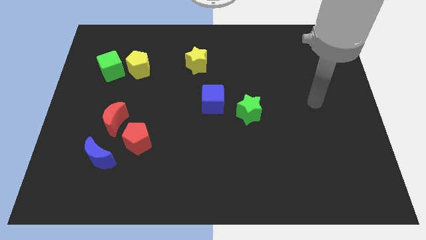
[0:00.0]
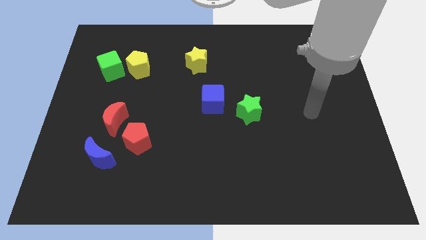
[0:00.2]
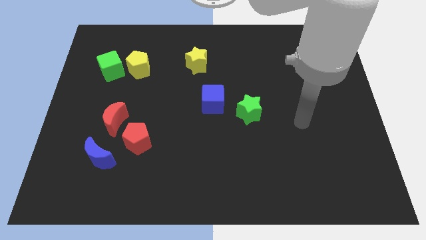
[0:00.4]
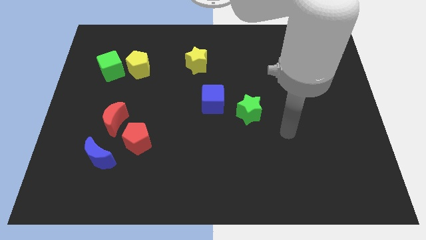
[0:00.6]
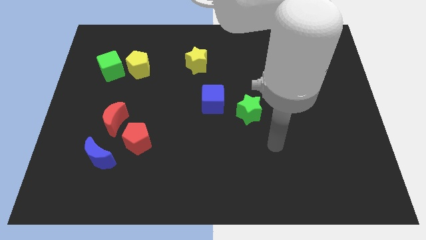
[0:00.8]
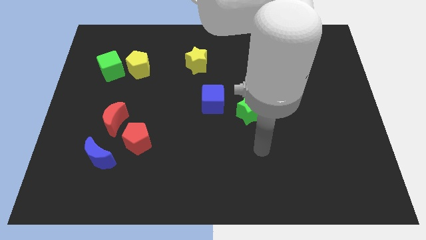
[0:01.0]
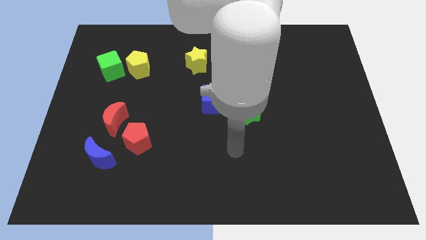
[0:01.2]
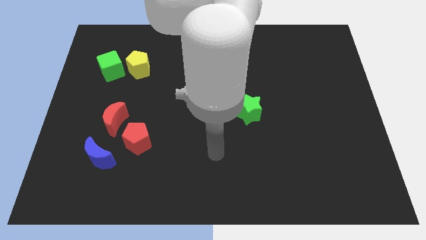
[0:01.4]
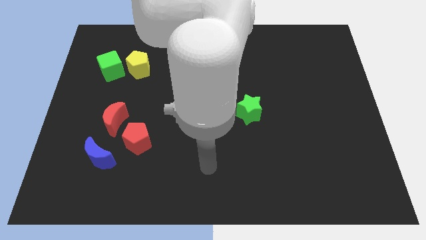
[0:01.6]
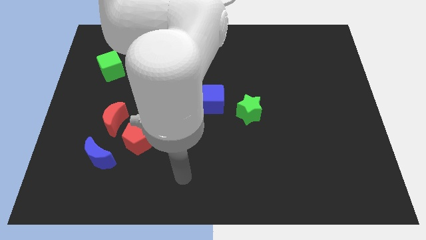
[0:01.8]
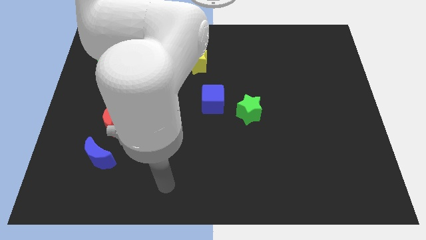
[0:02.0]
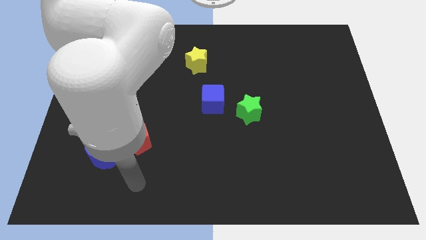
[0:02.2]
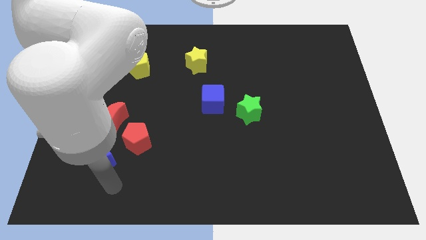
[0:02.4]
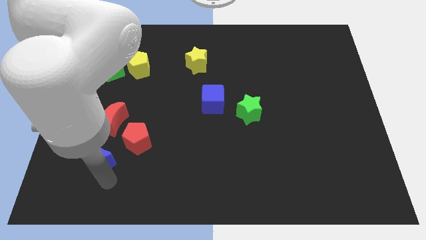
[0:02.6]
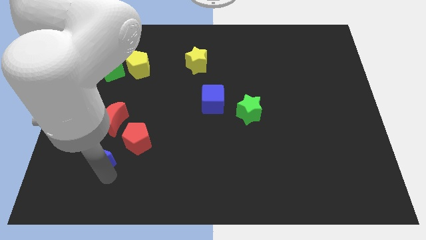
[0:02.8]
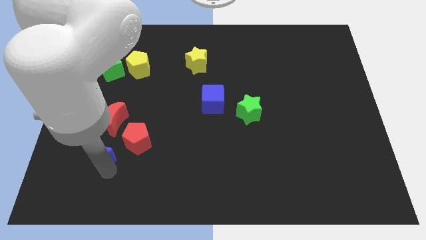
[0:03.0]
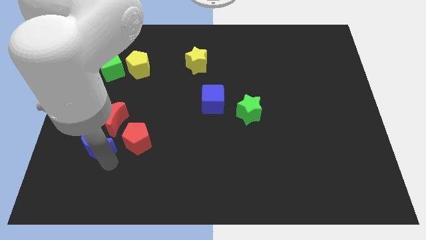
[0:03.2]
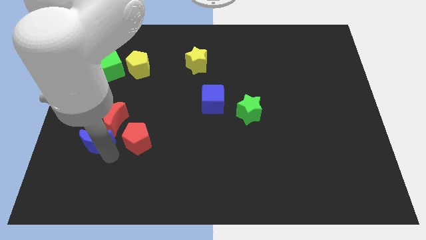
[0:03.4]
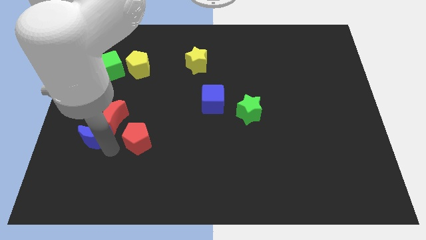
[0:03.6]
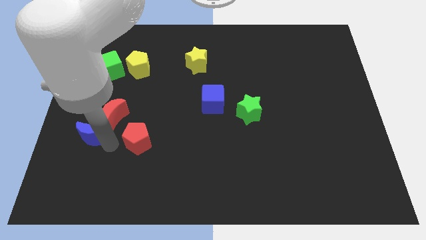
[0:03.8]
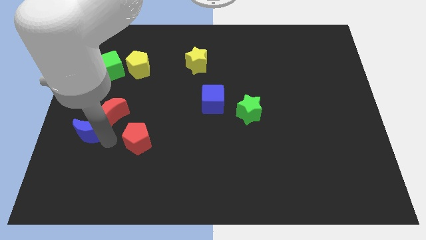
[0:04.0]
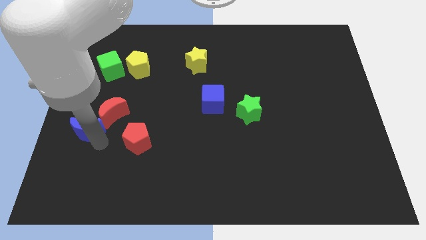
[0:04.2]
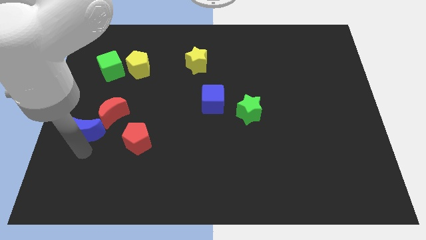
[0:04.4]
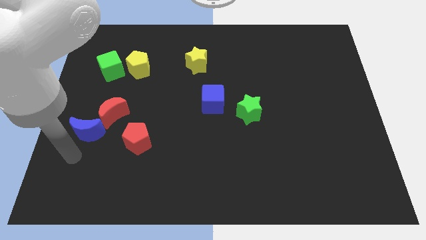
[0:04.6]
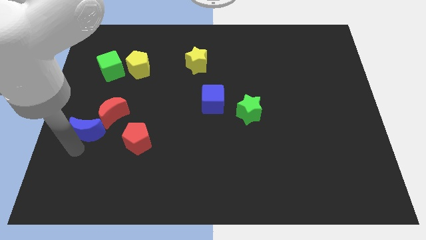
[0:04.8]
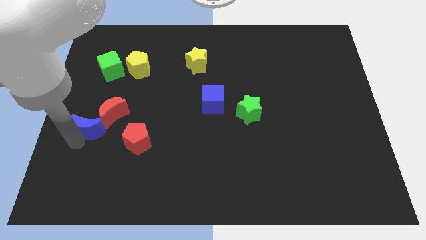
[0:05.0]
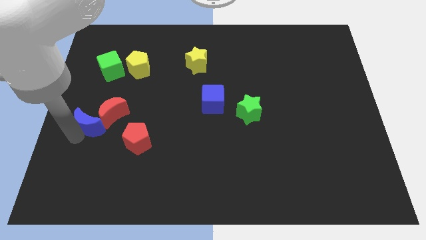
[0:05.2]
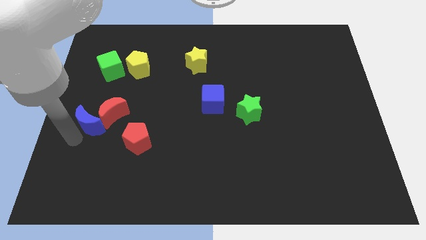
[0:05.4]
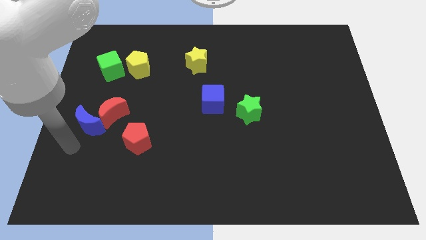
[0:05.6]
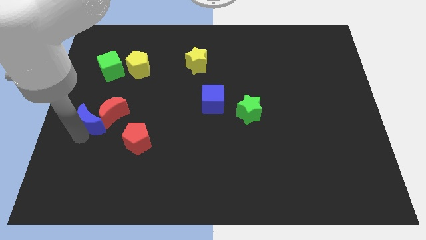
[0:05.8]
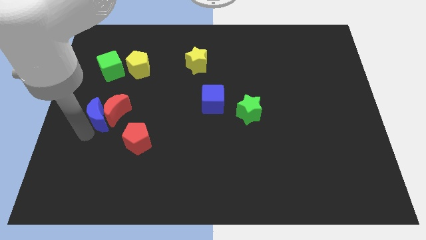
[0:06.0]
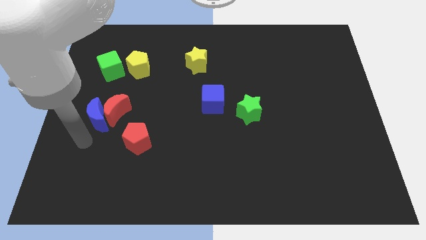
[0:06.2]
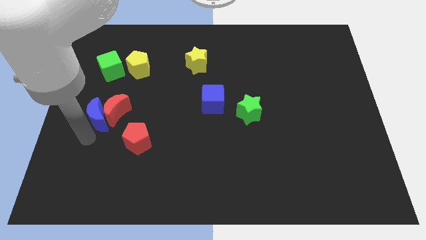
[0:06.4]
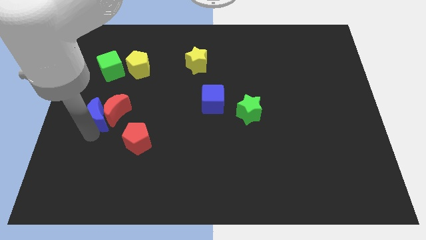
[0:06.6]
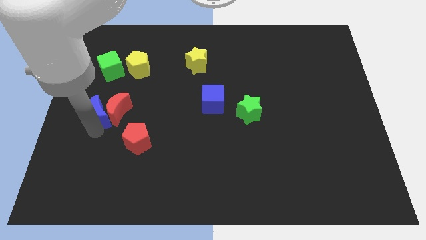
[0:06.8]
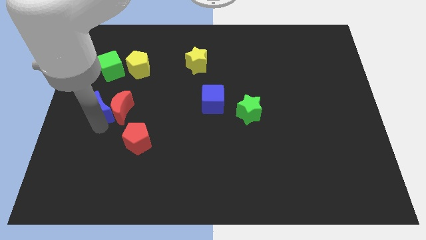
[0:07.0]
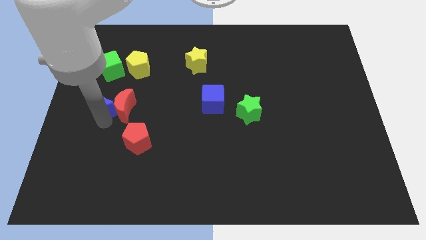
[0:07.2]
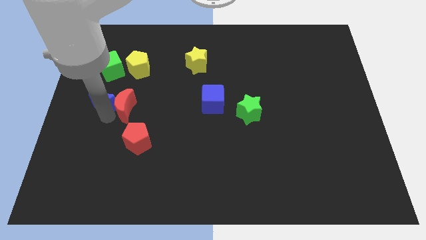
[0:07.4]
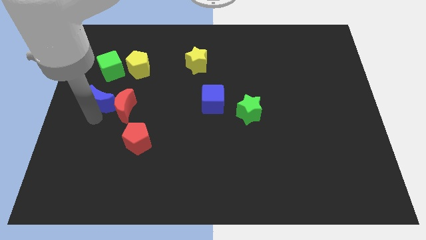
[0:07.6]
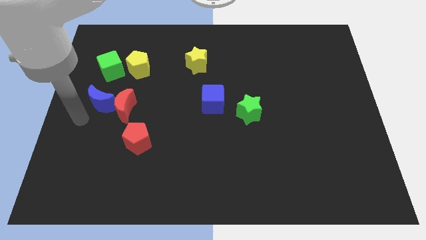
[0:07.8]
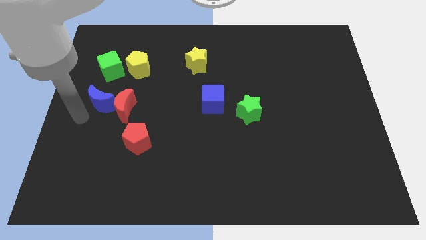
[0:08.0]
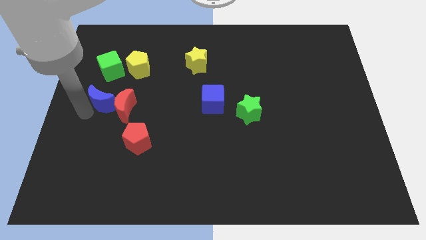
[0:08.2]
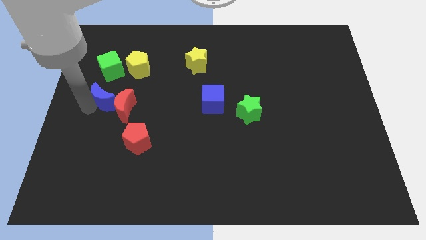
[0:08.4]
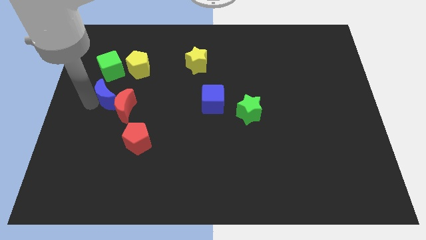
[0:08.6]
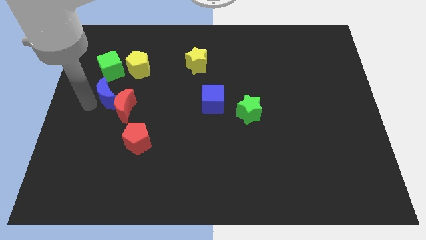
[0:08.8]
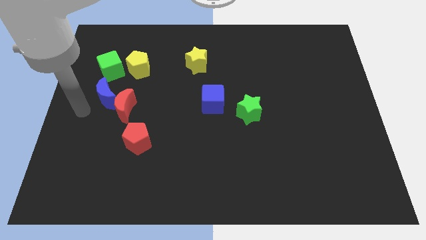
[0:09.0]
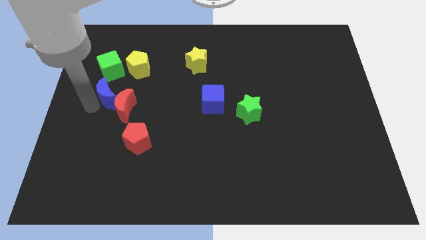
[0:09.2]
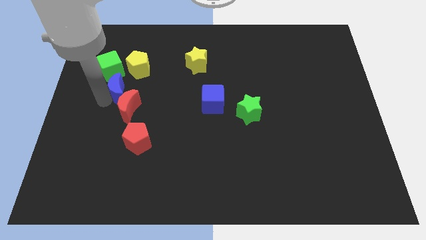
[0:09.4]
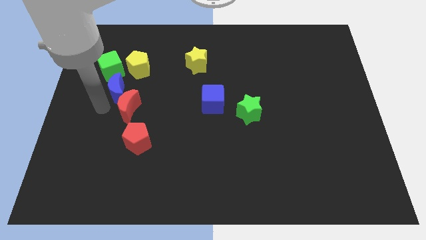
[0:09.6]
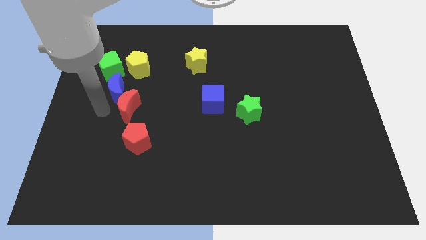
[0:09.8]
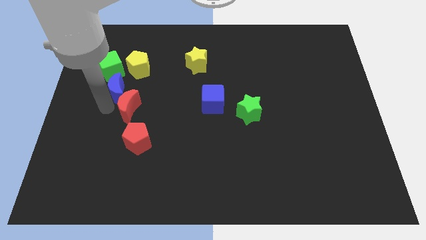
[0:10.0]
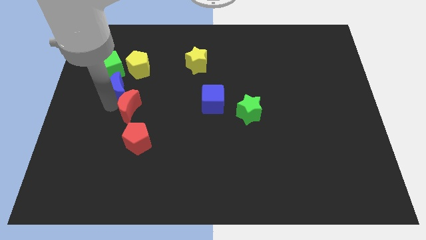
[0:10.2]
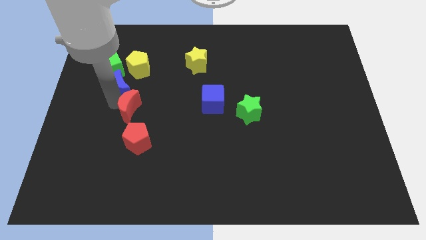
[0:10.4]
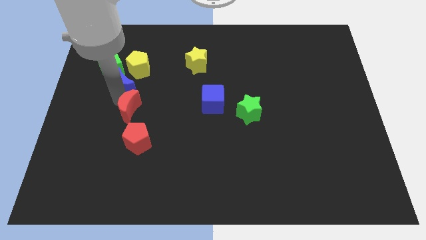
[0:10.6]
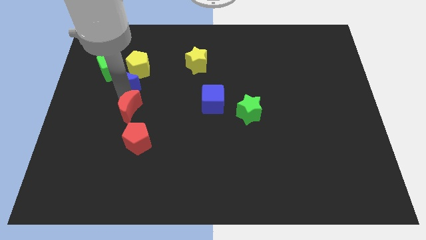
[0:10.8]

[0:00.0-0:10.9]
move the blue moon towards the yellow pentagon

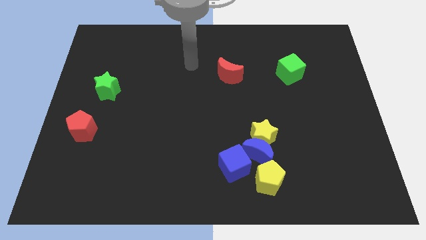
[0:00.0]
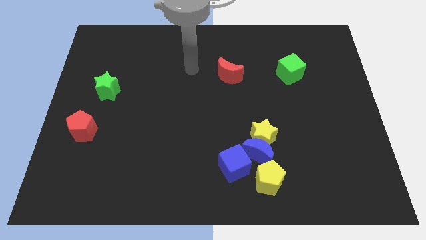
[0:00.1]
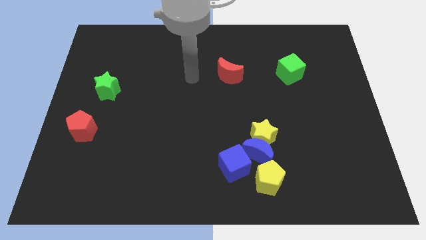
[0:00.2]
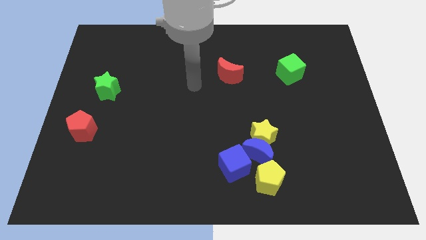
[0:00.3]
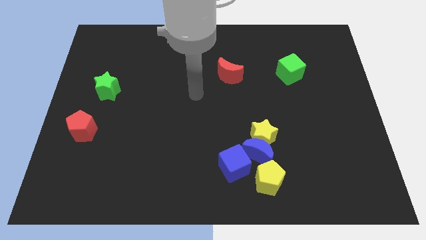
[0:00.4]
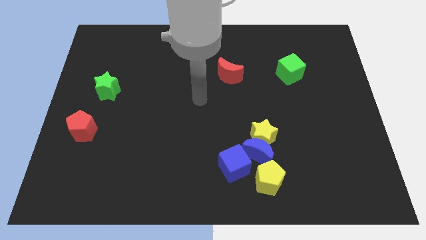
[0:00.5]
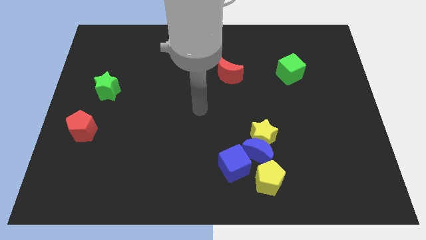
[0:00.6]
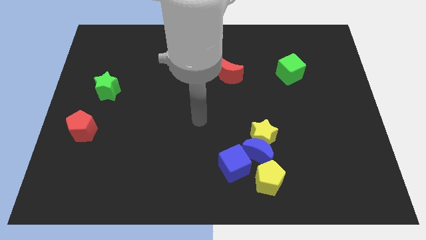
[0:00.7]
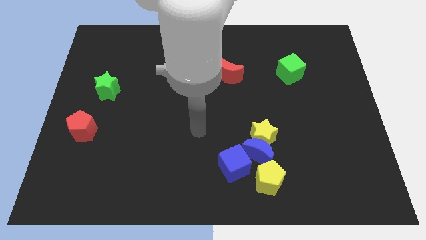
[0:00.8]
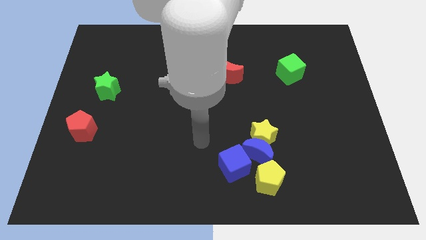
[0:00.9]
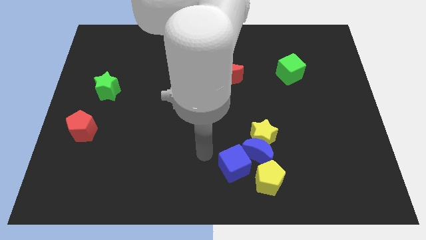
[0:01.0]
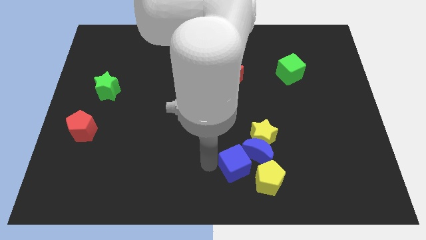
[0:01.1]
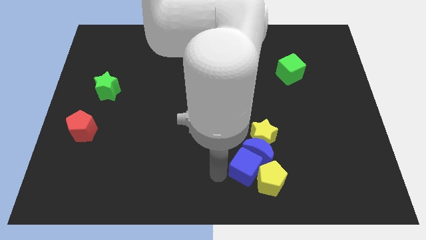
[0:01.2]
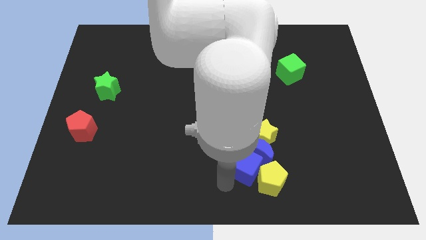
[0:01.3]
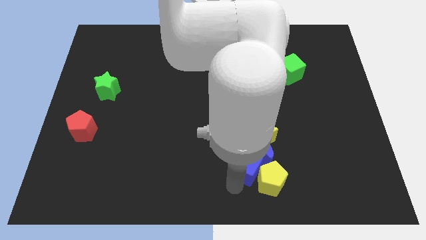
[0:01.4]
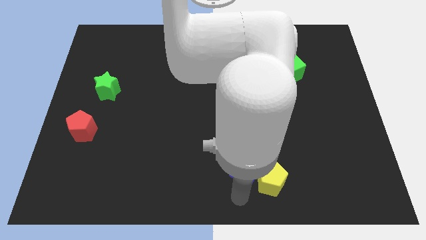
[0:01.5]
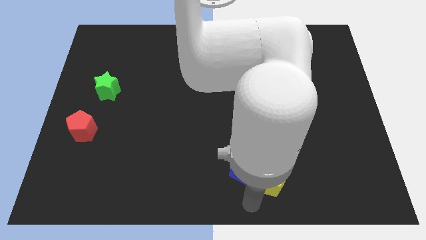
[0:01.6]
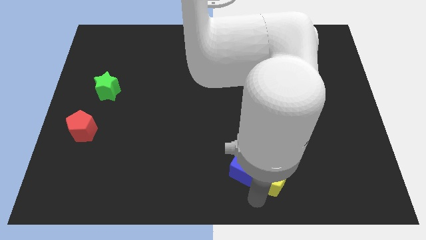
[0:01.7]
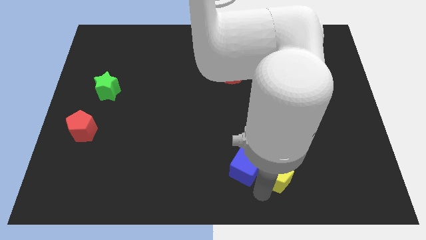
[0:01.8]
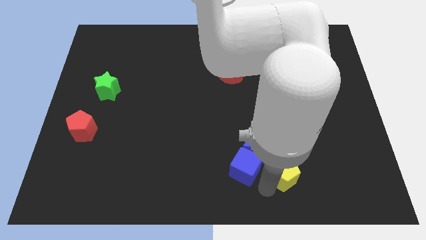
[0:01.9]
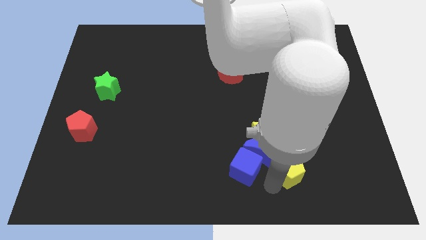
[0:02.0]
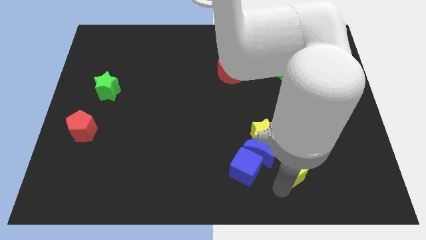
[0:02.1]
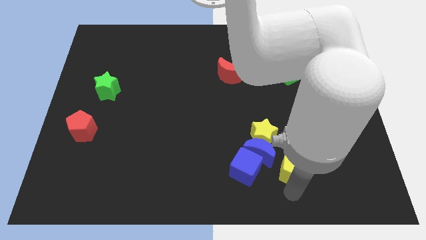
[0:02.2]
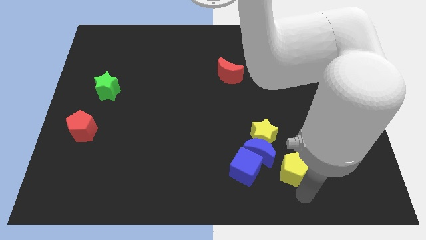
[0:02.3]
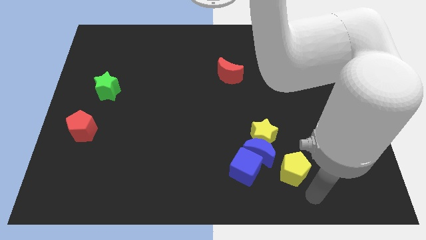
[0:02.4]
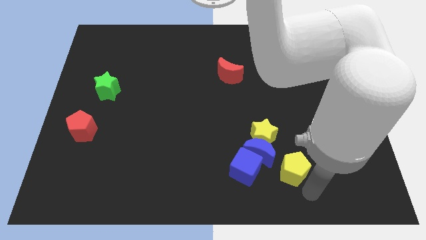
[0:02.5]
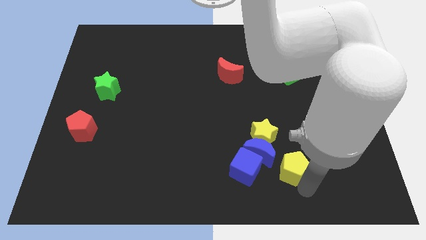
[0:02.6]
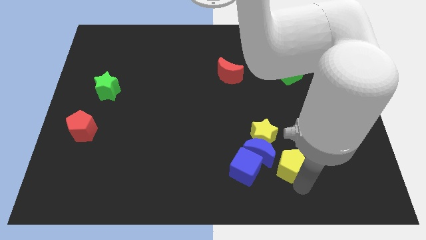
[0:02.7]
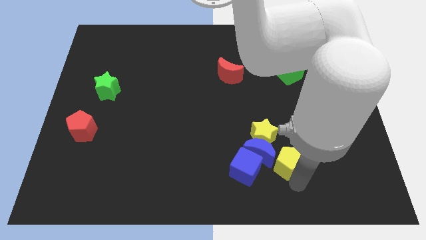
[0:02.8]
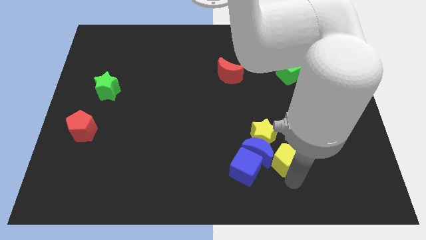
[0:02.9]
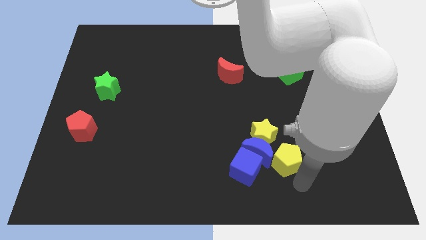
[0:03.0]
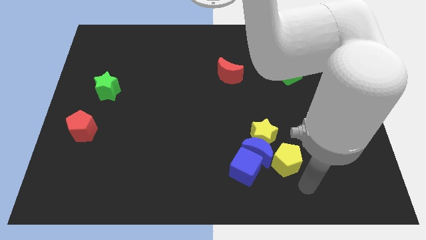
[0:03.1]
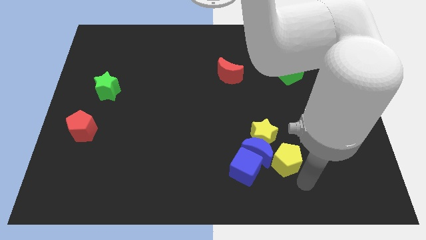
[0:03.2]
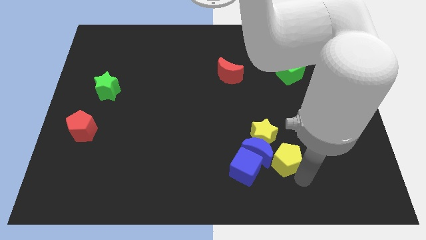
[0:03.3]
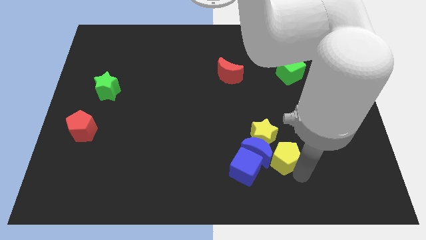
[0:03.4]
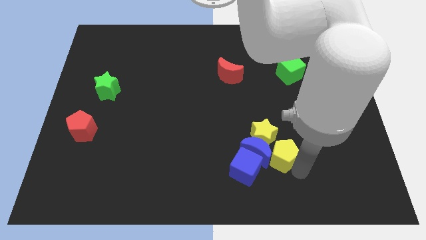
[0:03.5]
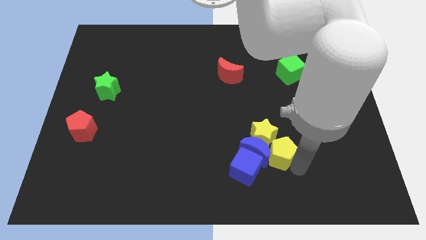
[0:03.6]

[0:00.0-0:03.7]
slide the yellow pentagon next to the yellow star
